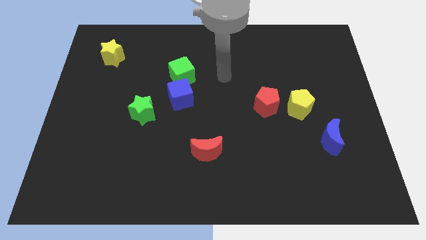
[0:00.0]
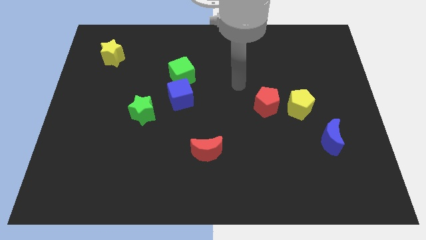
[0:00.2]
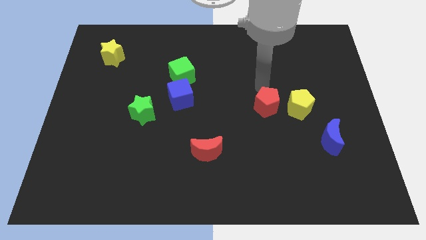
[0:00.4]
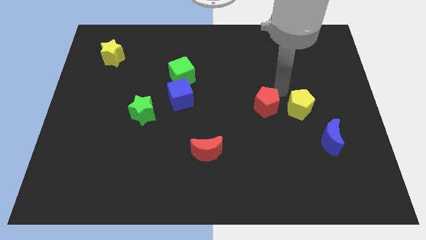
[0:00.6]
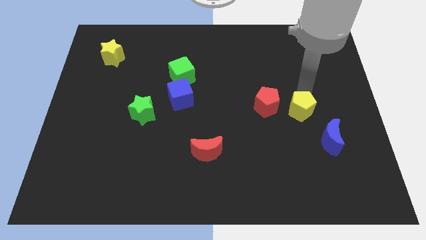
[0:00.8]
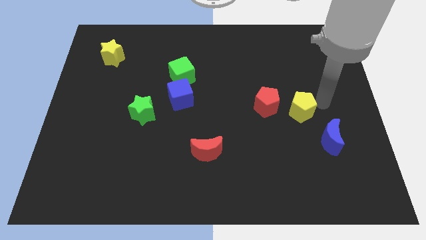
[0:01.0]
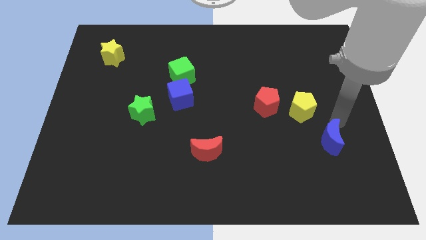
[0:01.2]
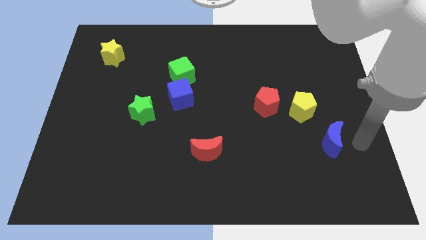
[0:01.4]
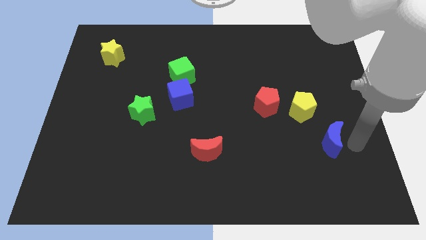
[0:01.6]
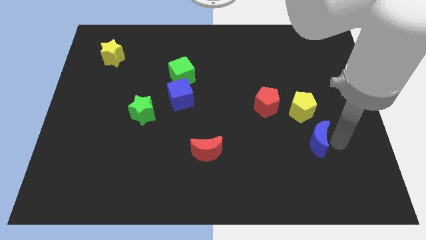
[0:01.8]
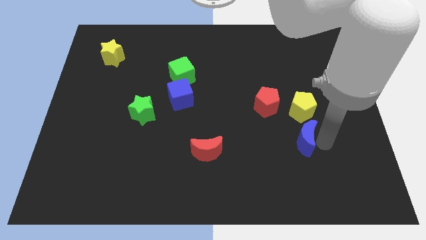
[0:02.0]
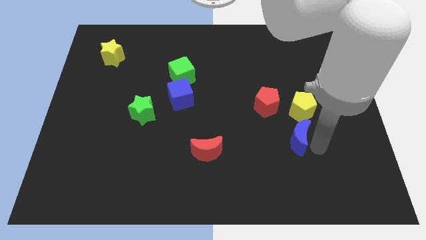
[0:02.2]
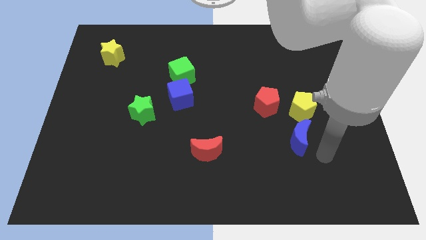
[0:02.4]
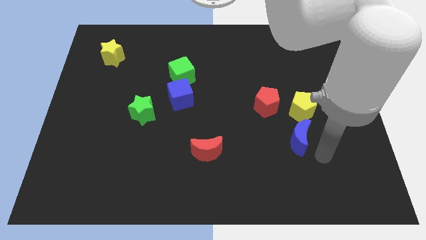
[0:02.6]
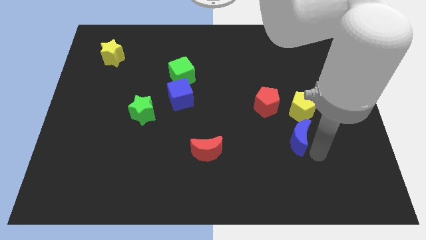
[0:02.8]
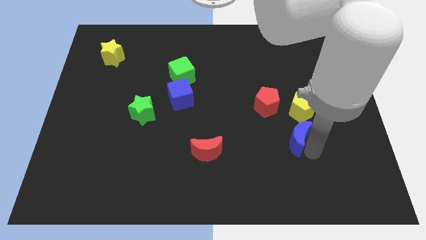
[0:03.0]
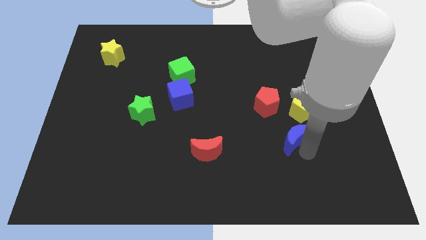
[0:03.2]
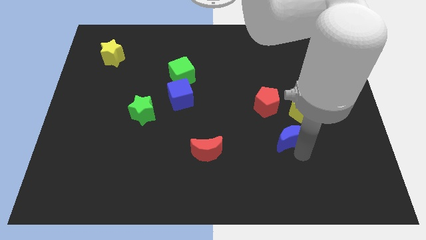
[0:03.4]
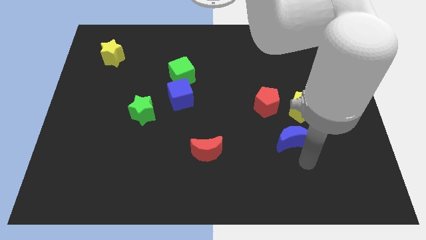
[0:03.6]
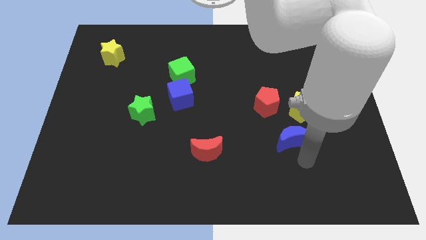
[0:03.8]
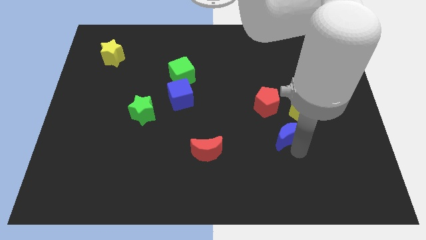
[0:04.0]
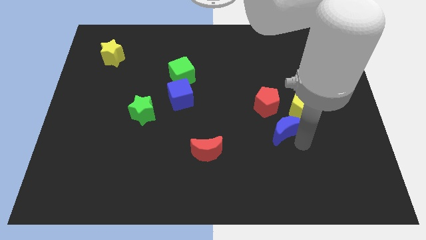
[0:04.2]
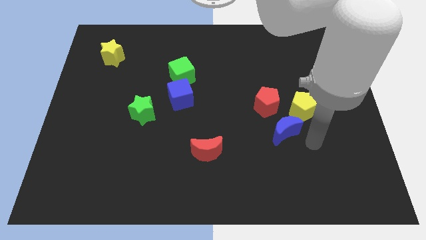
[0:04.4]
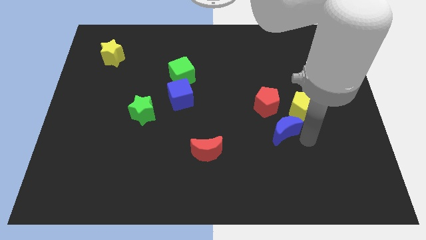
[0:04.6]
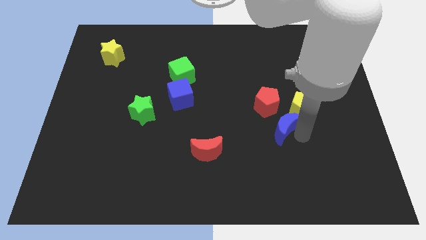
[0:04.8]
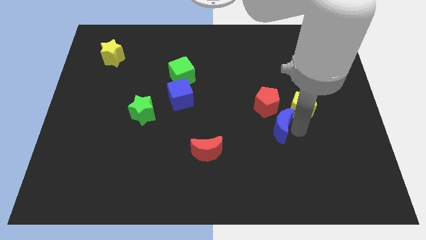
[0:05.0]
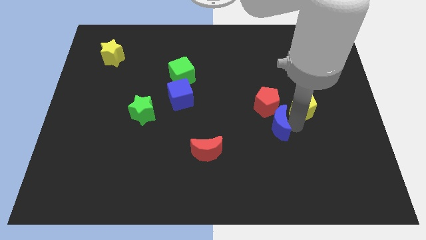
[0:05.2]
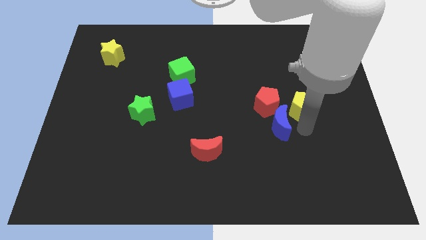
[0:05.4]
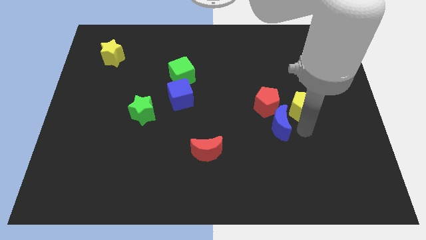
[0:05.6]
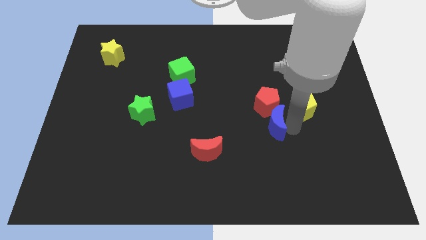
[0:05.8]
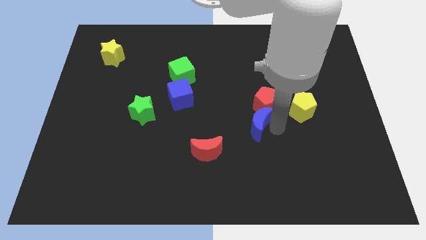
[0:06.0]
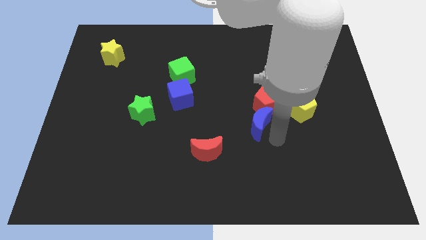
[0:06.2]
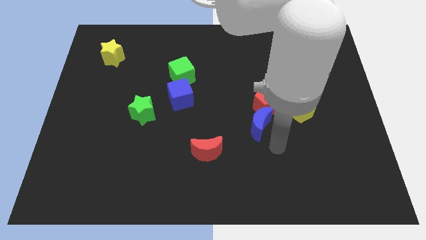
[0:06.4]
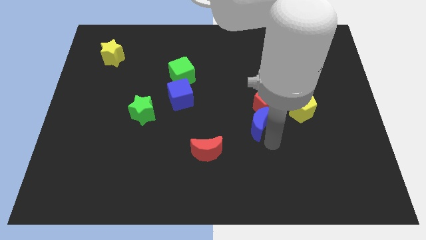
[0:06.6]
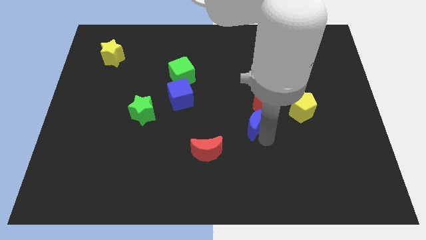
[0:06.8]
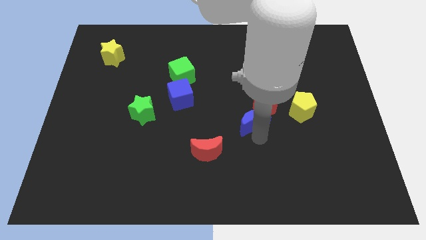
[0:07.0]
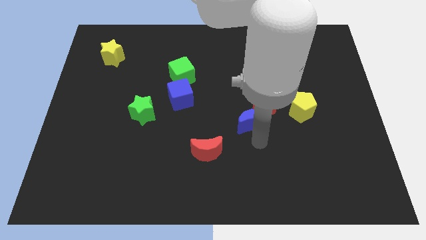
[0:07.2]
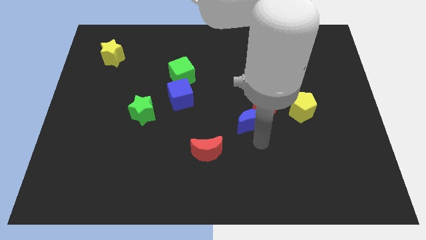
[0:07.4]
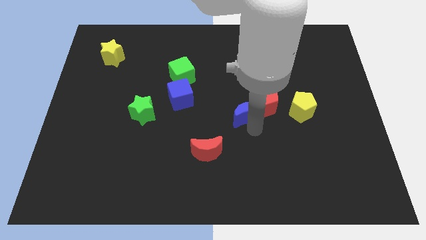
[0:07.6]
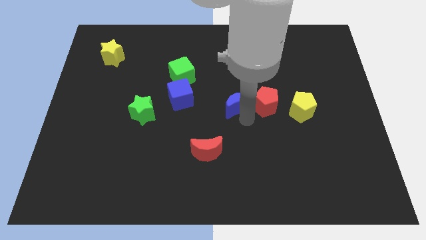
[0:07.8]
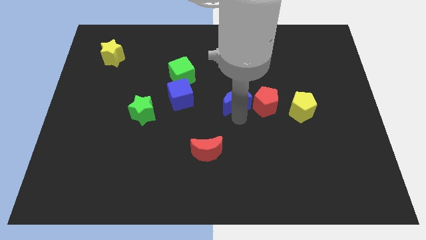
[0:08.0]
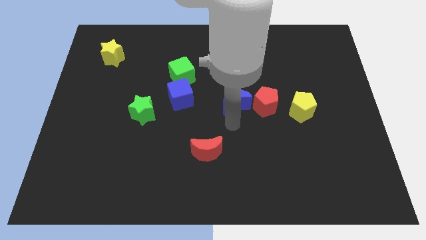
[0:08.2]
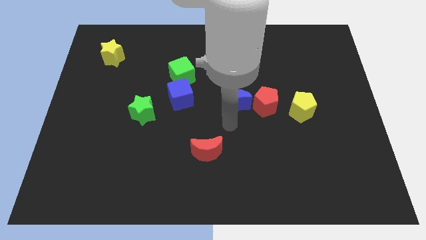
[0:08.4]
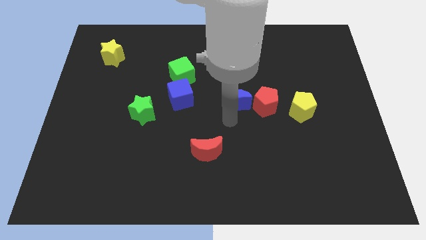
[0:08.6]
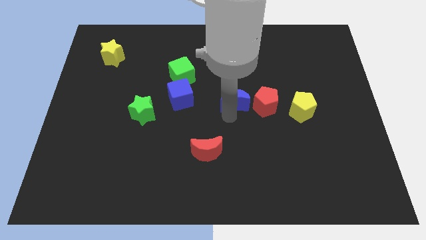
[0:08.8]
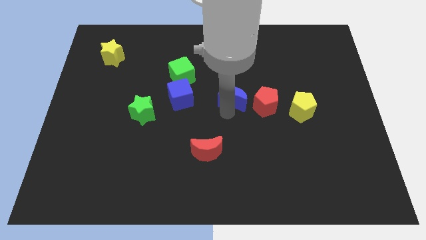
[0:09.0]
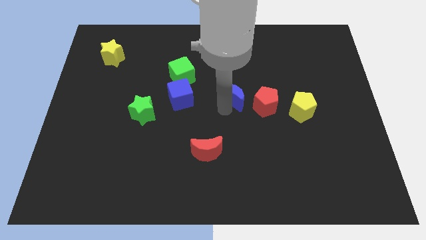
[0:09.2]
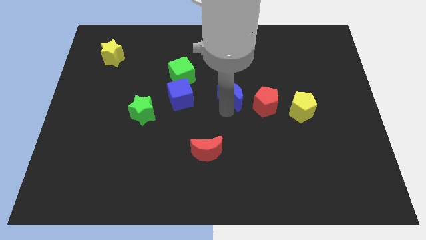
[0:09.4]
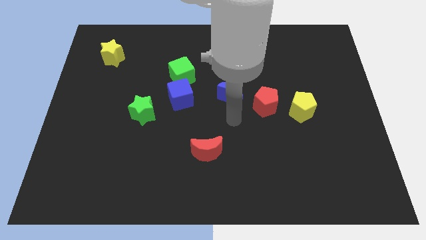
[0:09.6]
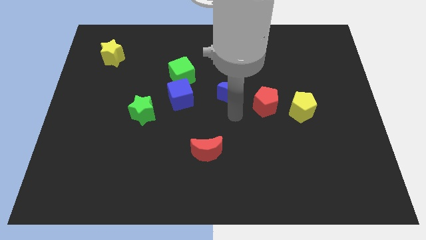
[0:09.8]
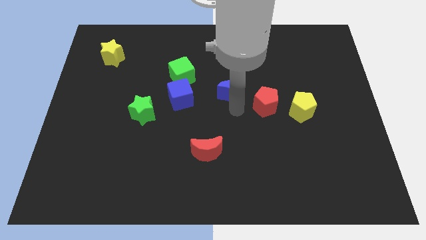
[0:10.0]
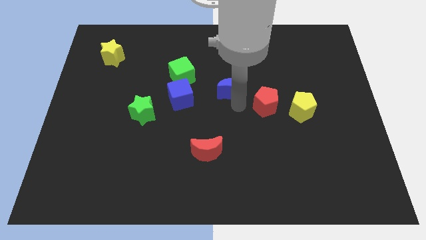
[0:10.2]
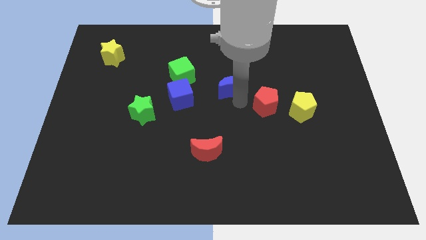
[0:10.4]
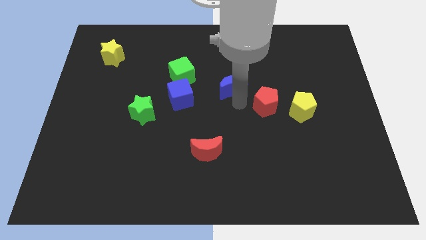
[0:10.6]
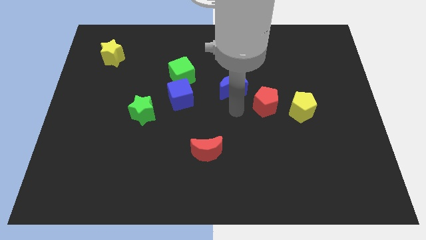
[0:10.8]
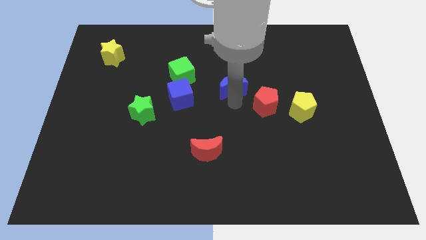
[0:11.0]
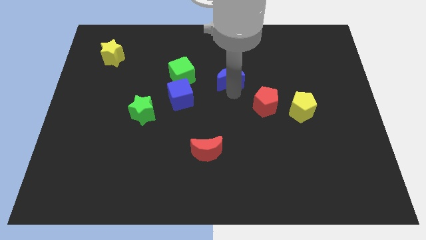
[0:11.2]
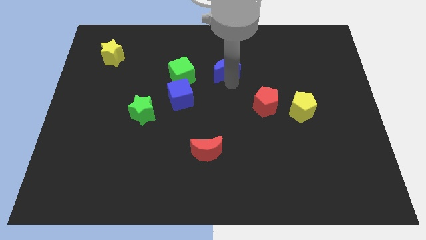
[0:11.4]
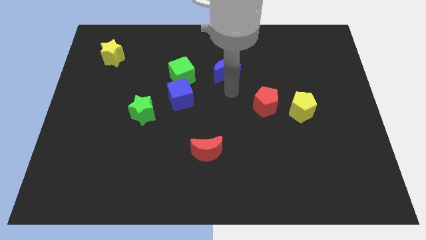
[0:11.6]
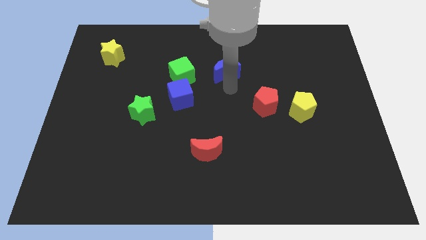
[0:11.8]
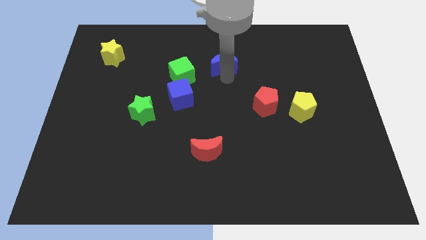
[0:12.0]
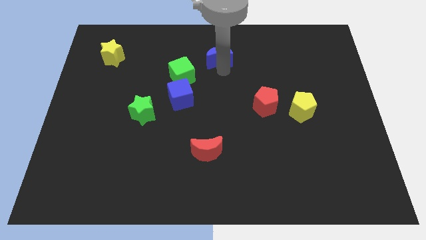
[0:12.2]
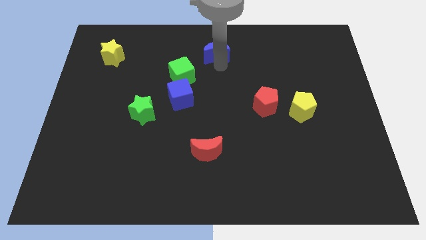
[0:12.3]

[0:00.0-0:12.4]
put the blue moon to the top
